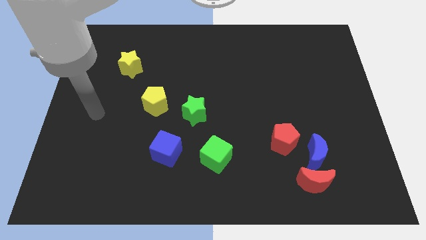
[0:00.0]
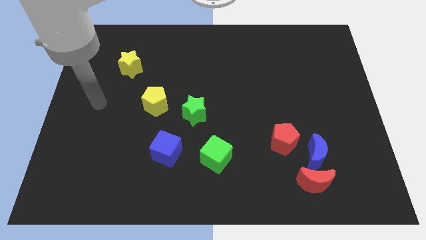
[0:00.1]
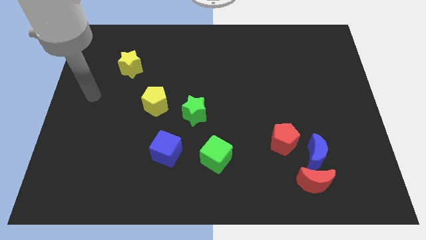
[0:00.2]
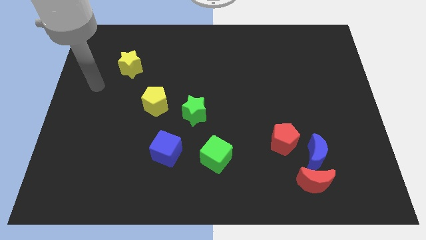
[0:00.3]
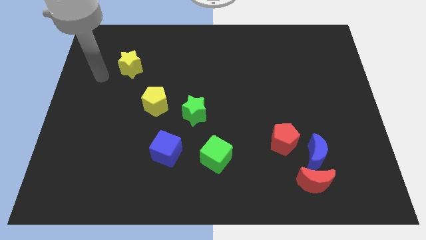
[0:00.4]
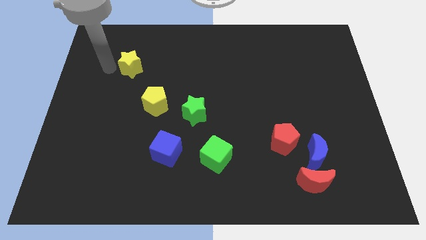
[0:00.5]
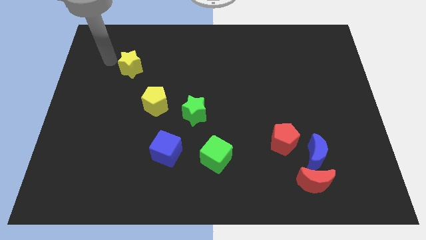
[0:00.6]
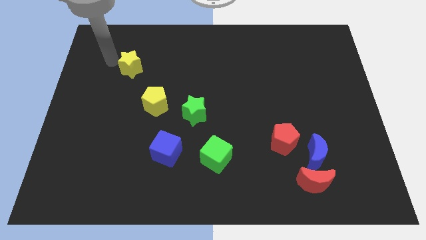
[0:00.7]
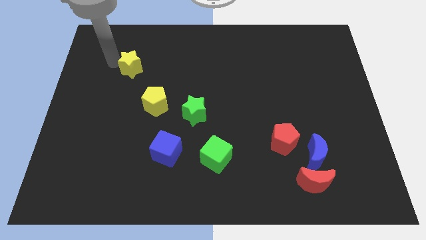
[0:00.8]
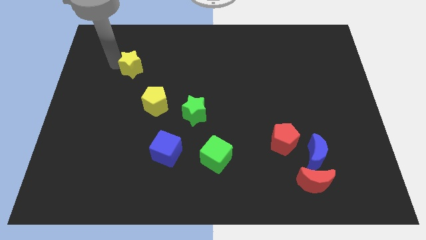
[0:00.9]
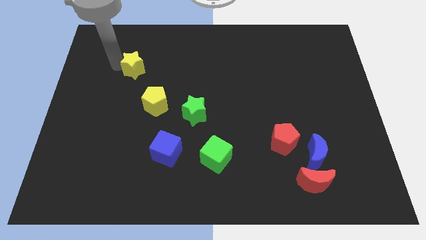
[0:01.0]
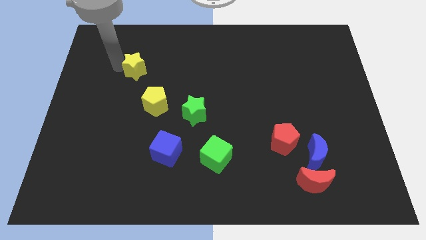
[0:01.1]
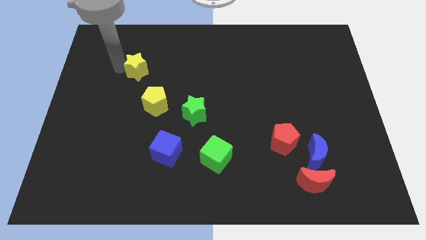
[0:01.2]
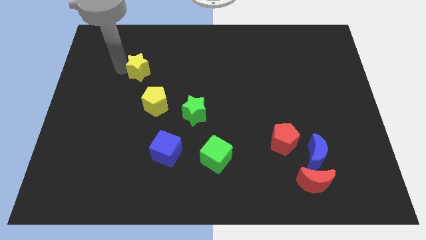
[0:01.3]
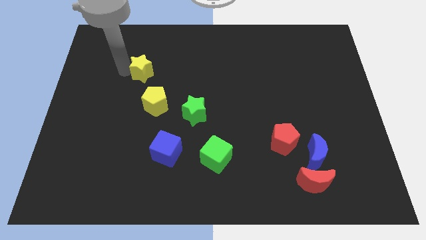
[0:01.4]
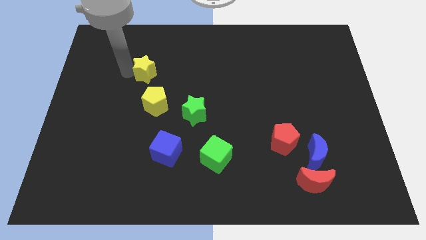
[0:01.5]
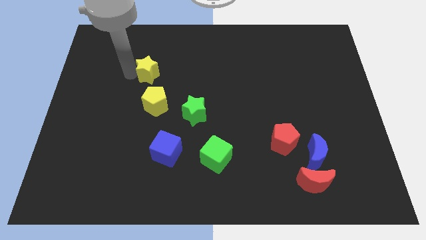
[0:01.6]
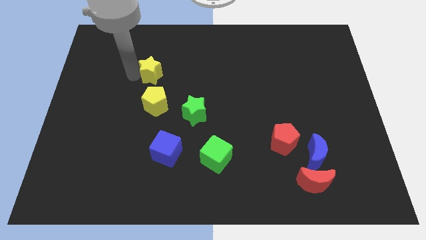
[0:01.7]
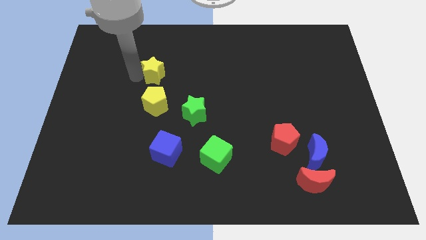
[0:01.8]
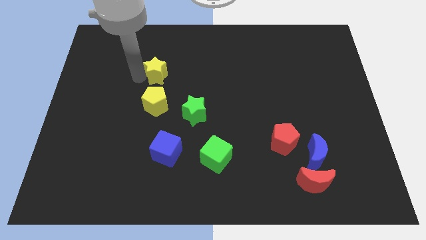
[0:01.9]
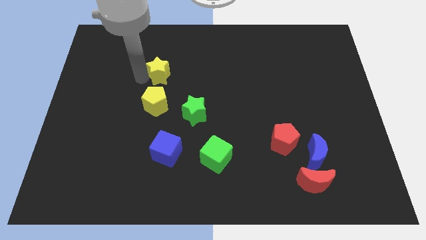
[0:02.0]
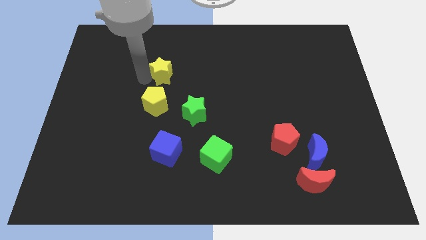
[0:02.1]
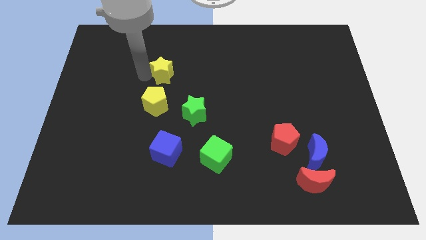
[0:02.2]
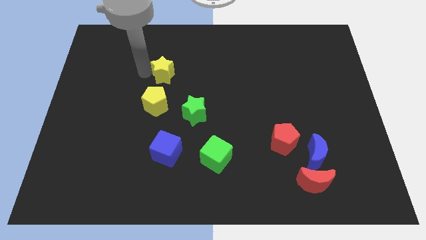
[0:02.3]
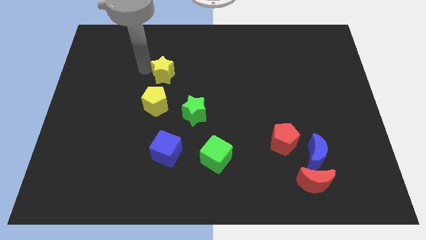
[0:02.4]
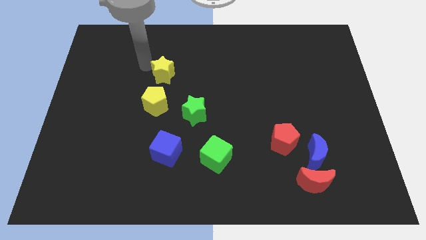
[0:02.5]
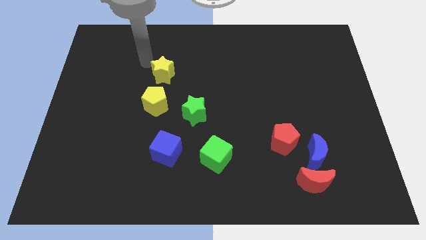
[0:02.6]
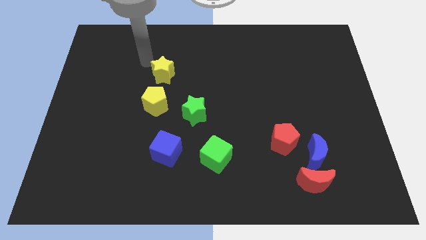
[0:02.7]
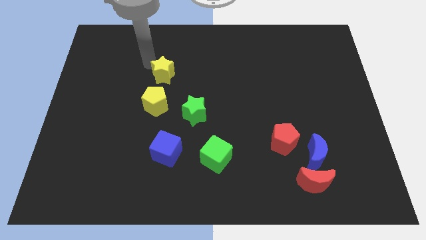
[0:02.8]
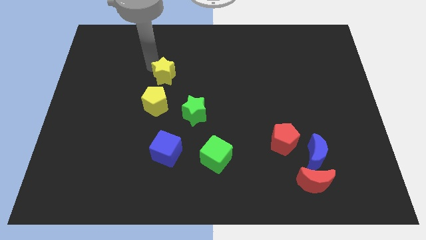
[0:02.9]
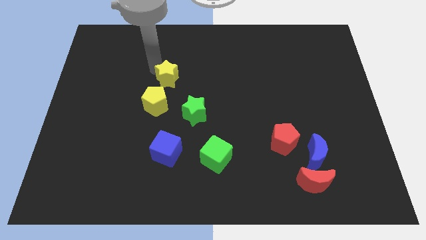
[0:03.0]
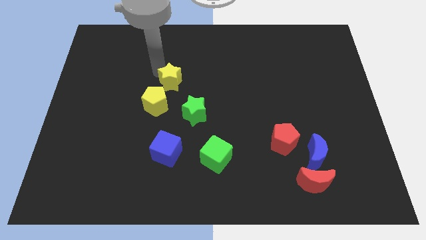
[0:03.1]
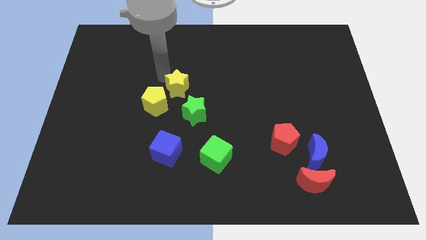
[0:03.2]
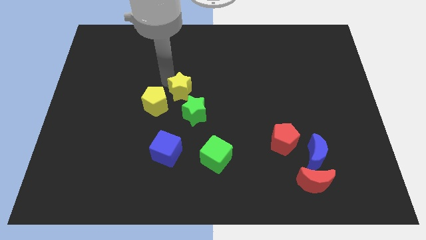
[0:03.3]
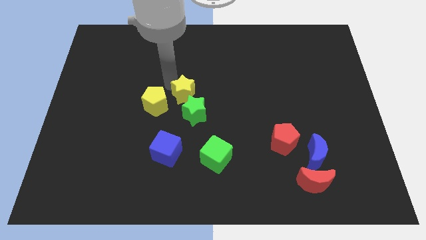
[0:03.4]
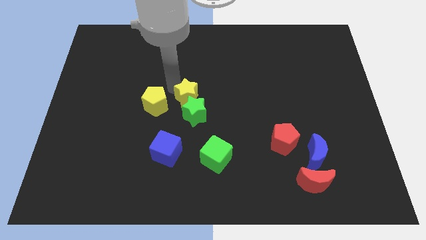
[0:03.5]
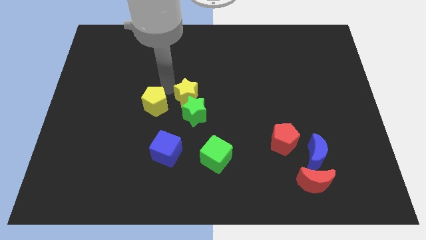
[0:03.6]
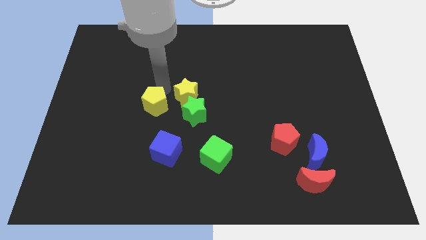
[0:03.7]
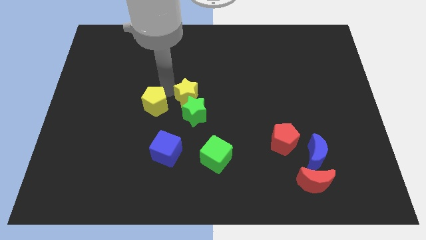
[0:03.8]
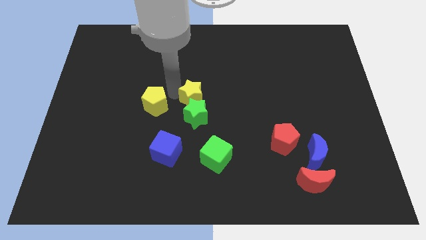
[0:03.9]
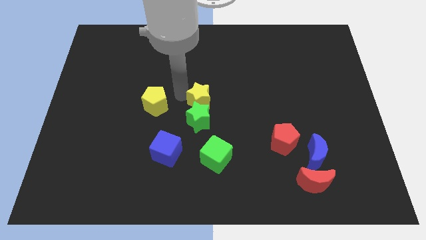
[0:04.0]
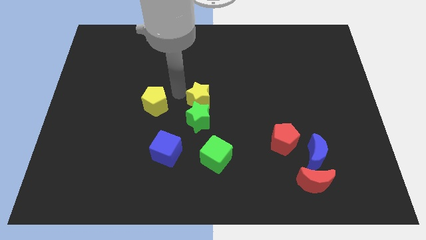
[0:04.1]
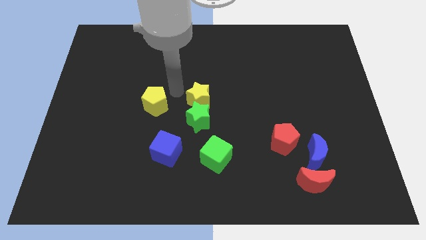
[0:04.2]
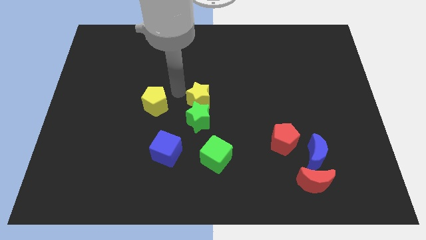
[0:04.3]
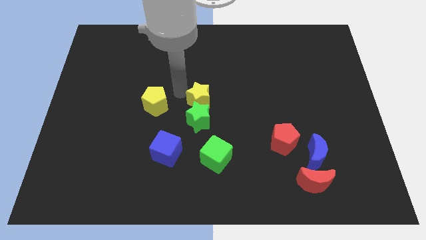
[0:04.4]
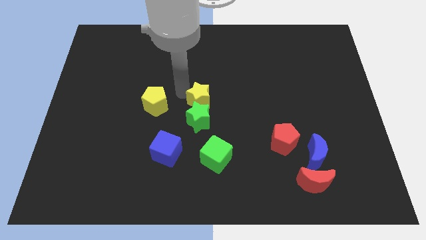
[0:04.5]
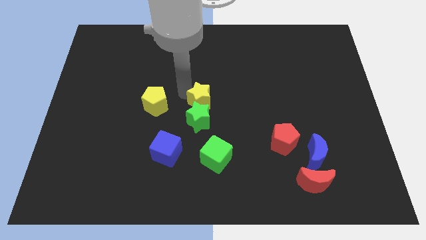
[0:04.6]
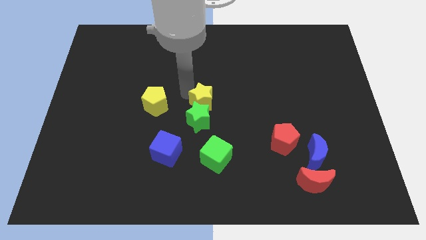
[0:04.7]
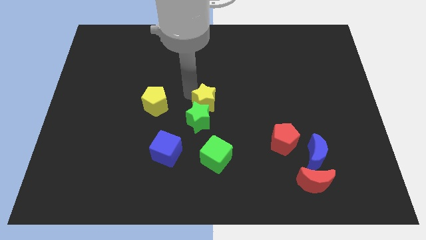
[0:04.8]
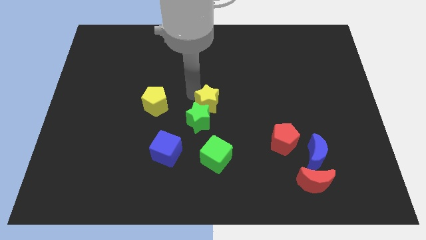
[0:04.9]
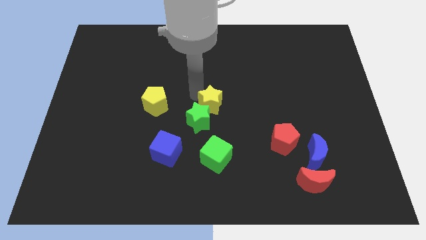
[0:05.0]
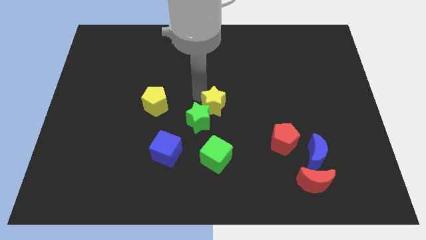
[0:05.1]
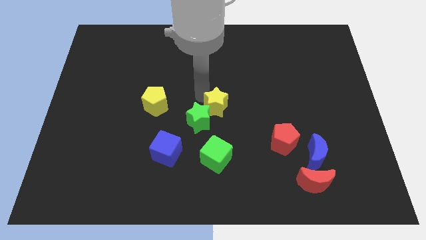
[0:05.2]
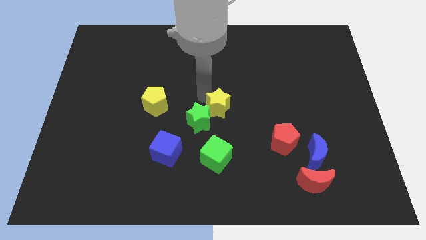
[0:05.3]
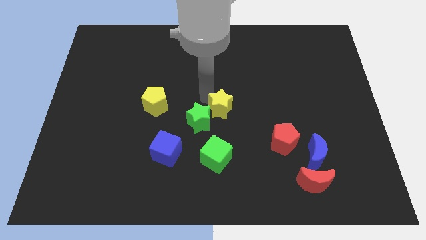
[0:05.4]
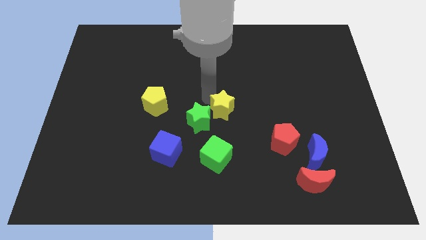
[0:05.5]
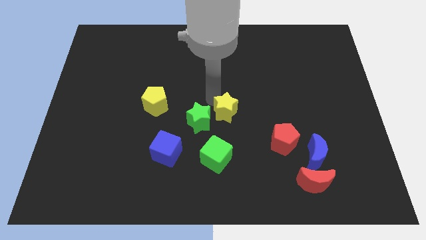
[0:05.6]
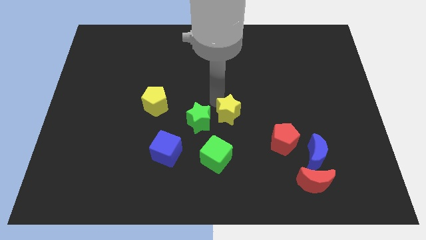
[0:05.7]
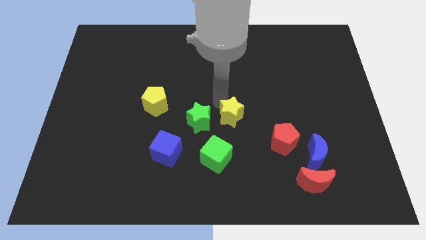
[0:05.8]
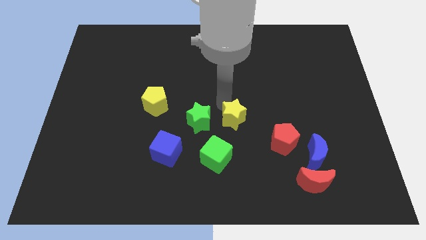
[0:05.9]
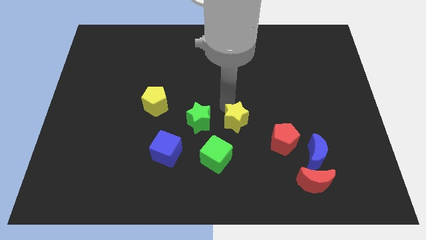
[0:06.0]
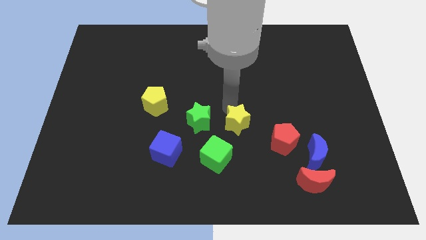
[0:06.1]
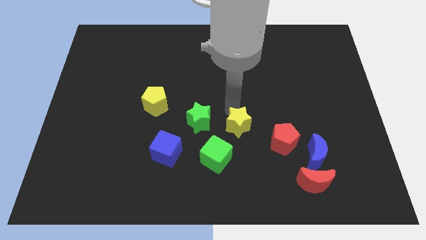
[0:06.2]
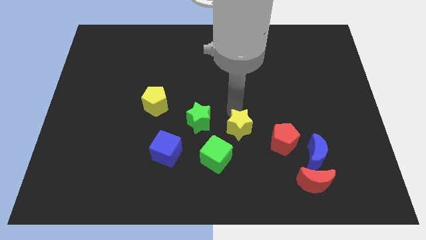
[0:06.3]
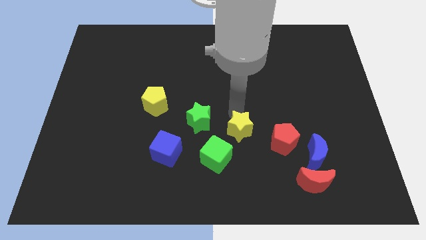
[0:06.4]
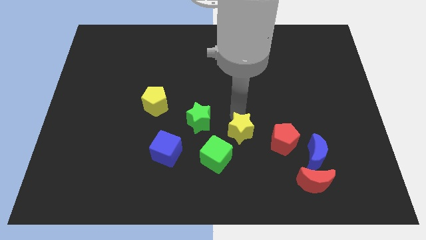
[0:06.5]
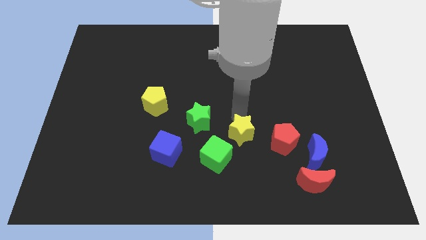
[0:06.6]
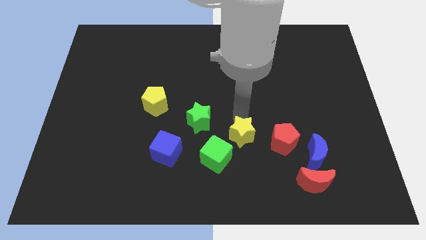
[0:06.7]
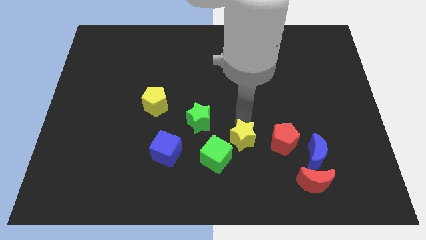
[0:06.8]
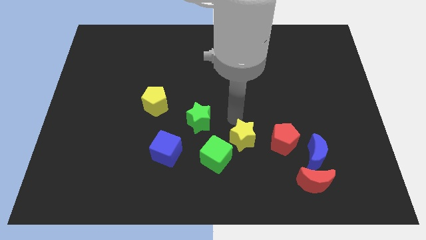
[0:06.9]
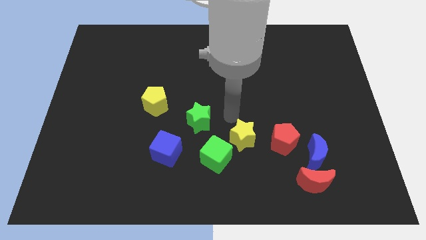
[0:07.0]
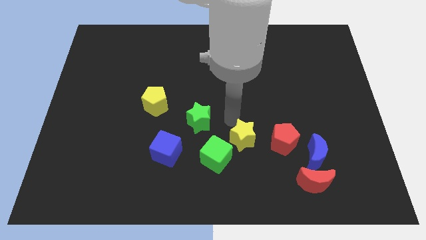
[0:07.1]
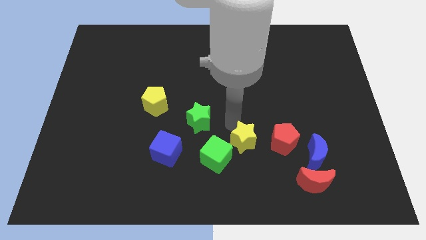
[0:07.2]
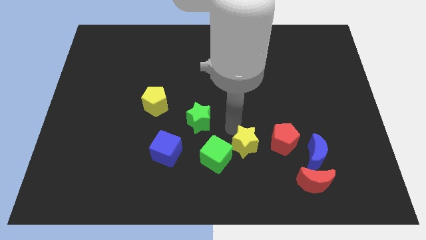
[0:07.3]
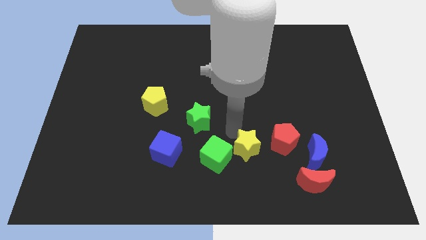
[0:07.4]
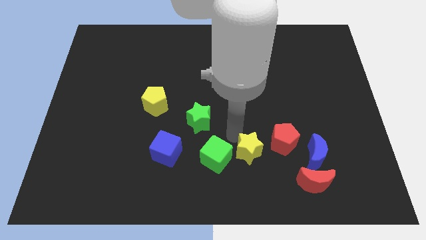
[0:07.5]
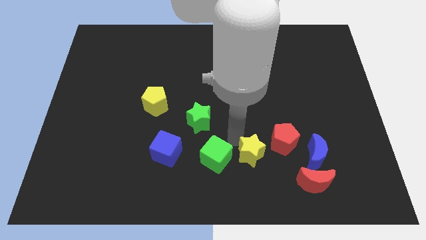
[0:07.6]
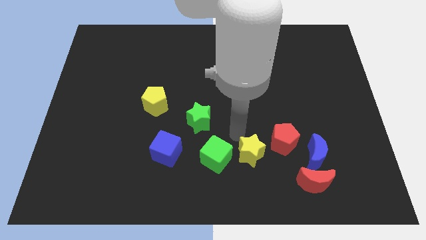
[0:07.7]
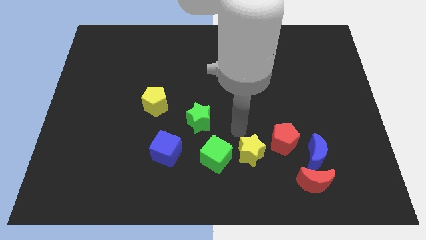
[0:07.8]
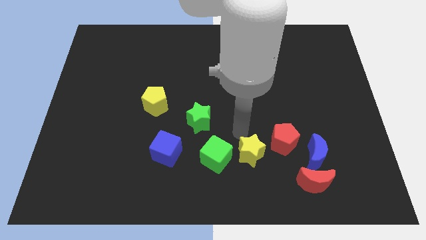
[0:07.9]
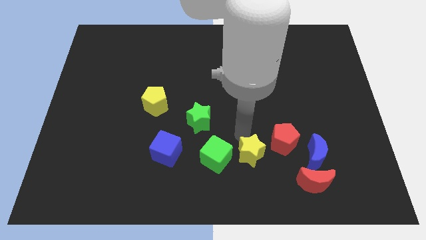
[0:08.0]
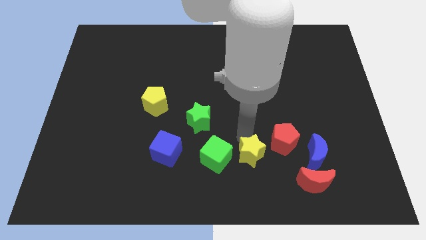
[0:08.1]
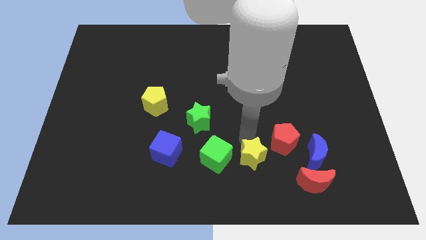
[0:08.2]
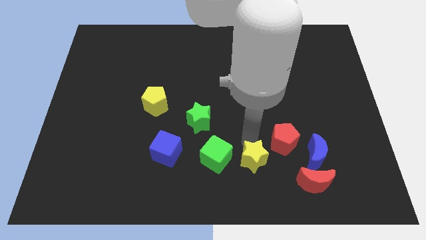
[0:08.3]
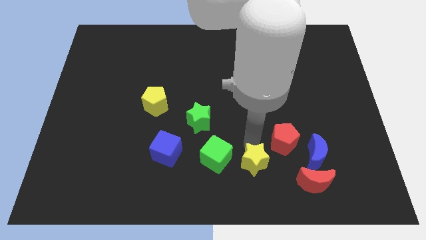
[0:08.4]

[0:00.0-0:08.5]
move the yellow star just left of the red moon
